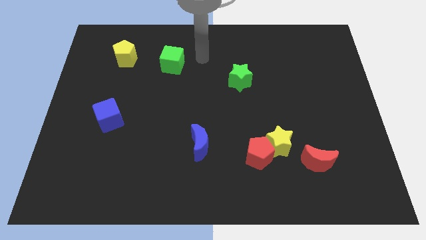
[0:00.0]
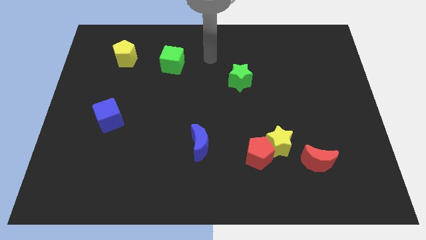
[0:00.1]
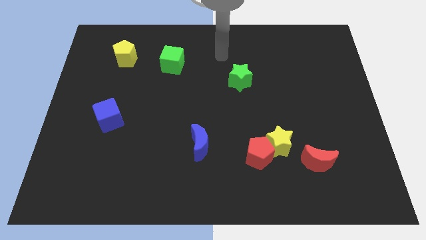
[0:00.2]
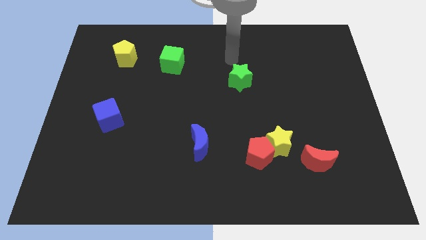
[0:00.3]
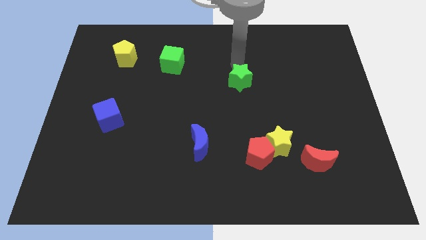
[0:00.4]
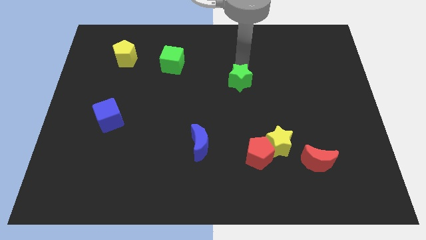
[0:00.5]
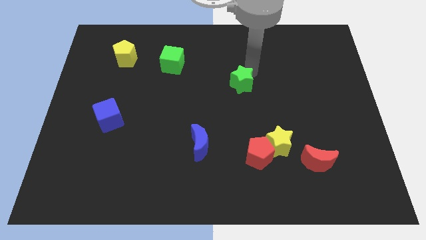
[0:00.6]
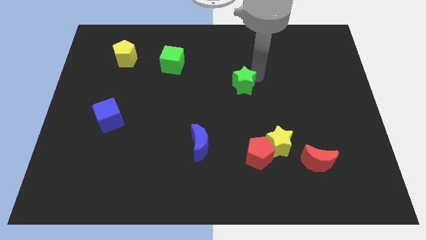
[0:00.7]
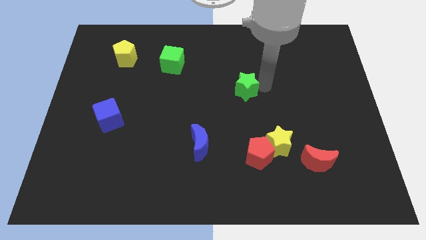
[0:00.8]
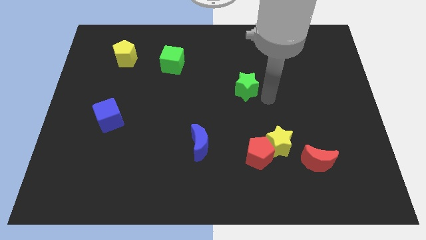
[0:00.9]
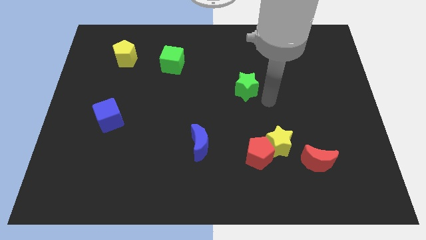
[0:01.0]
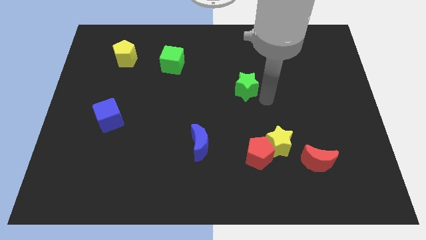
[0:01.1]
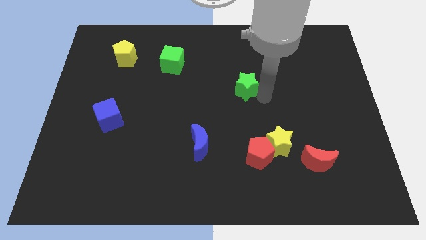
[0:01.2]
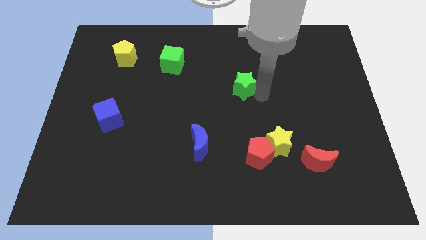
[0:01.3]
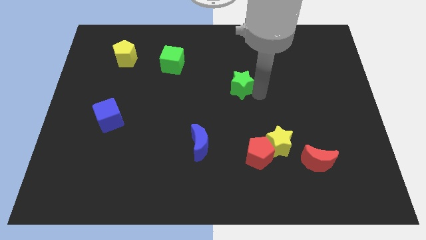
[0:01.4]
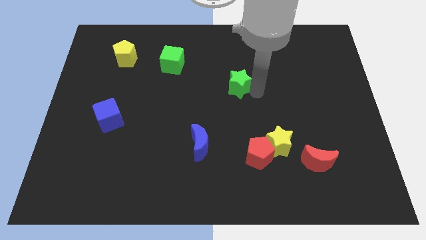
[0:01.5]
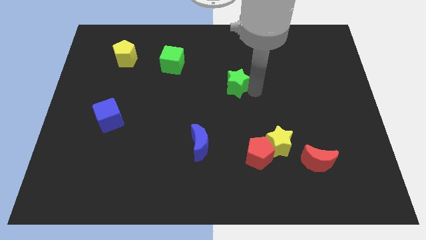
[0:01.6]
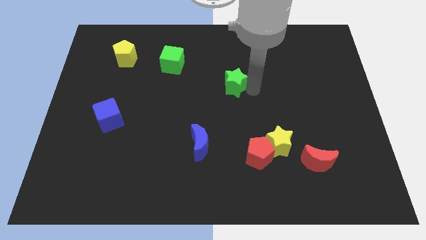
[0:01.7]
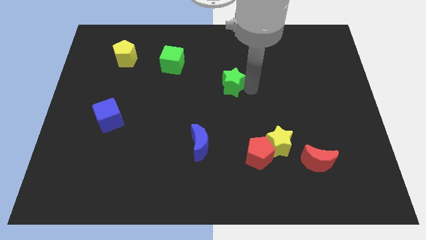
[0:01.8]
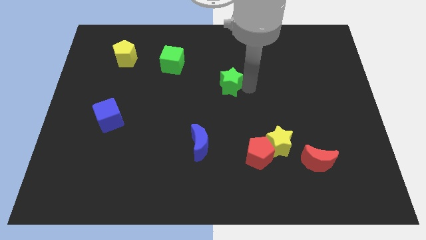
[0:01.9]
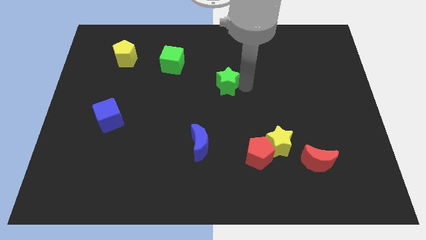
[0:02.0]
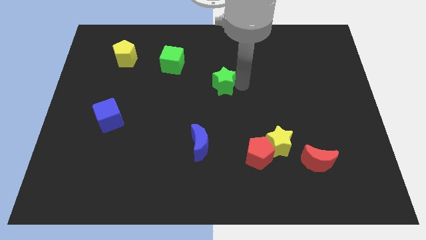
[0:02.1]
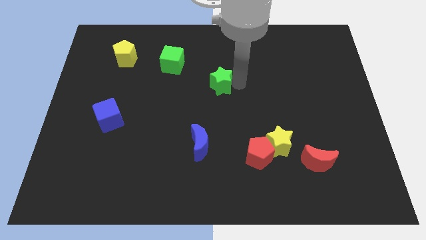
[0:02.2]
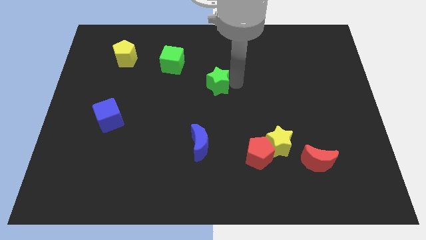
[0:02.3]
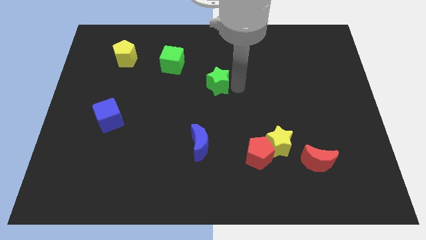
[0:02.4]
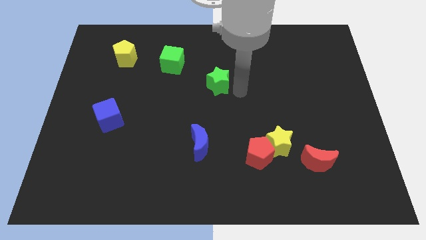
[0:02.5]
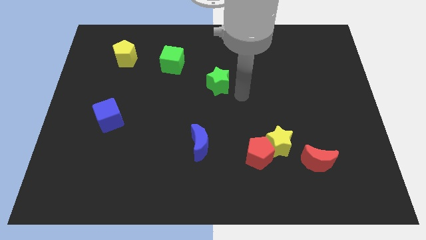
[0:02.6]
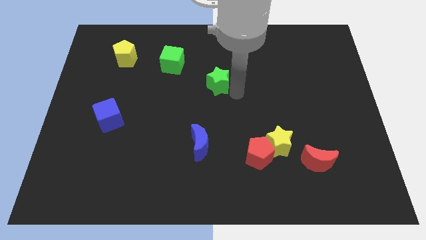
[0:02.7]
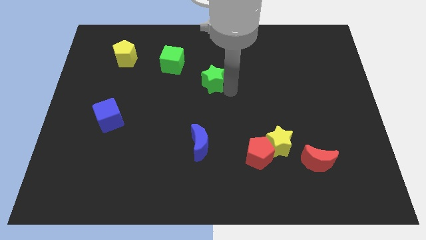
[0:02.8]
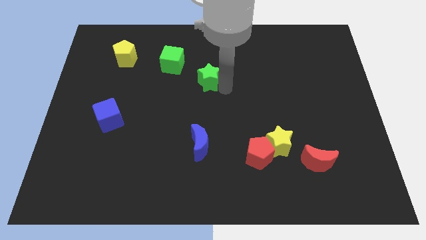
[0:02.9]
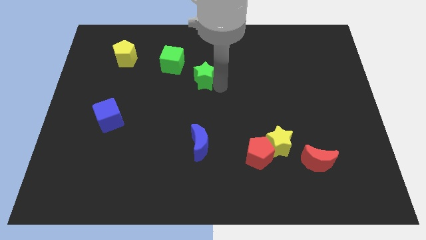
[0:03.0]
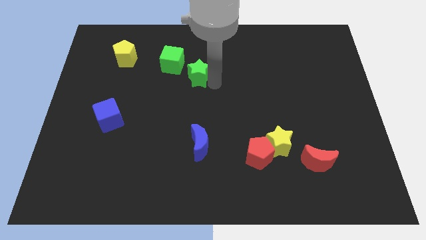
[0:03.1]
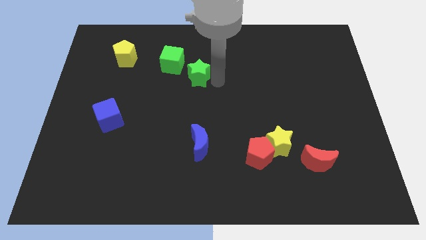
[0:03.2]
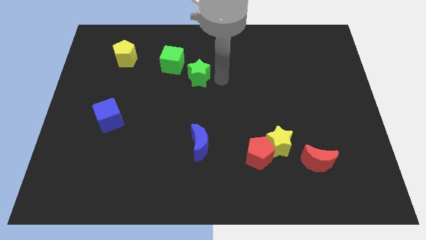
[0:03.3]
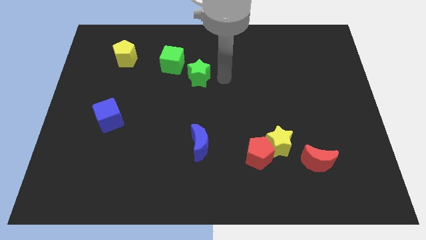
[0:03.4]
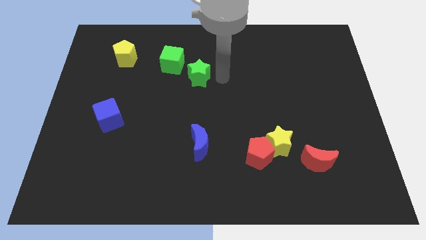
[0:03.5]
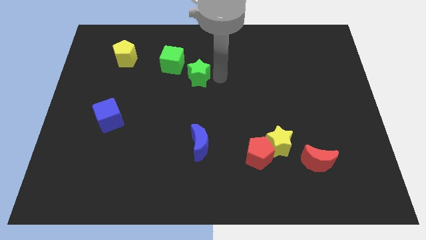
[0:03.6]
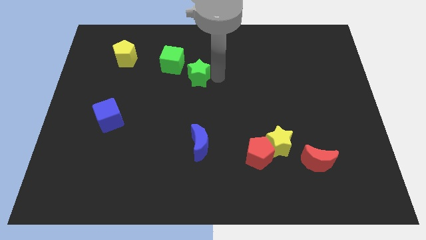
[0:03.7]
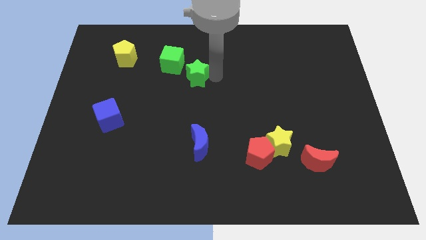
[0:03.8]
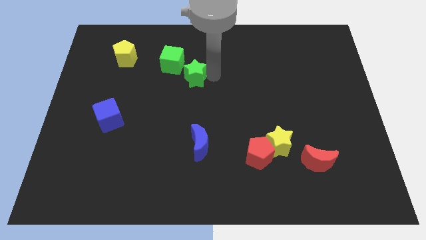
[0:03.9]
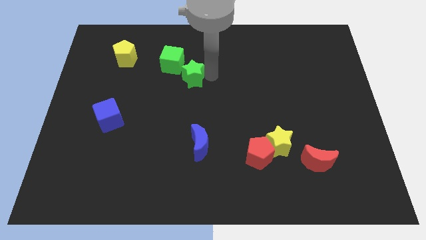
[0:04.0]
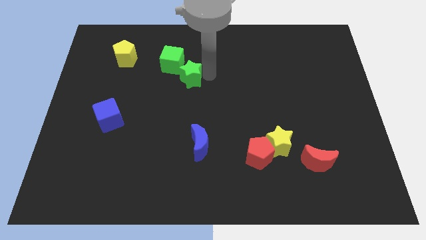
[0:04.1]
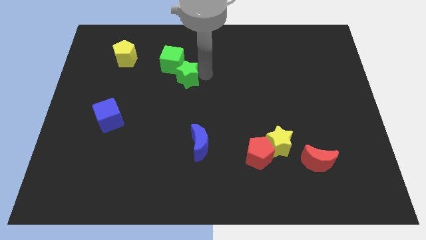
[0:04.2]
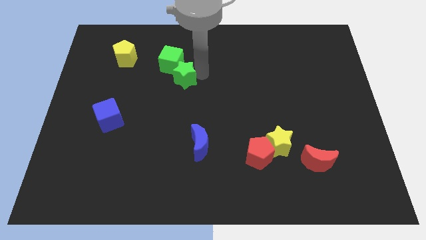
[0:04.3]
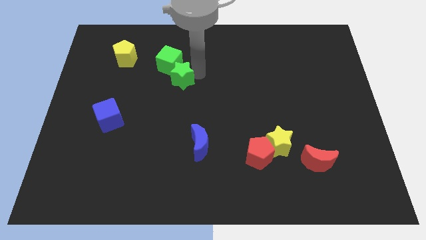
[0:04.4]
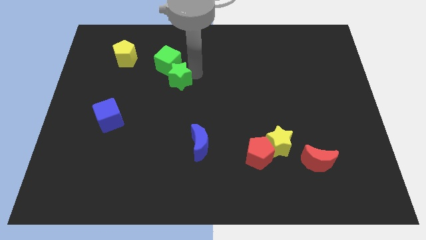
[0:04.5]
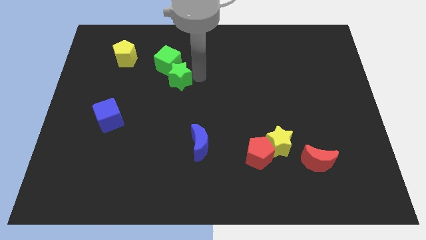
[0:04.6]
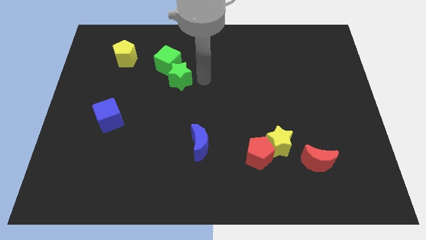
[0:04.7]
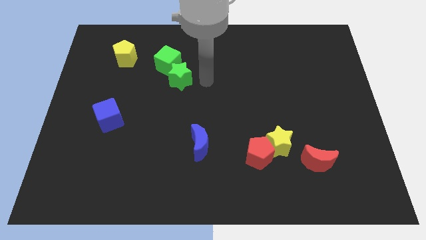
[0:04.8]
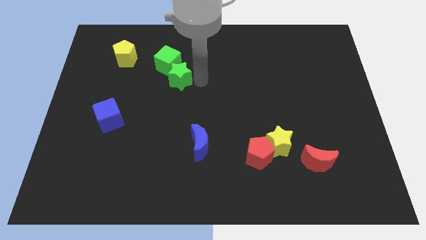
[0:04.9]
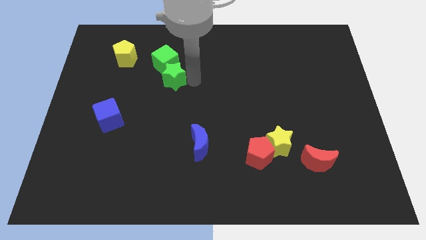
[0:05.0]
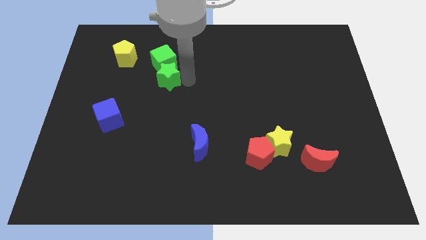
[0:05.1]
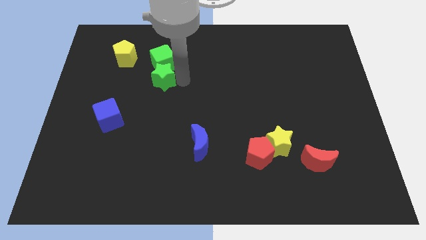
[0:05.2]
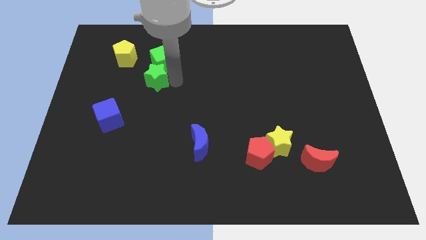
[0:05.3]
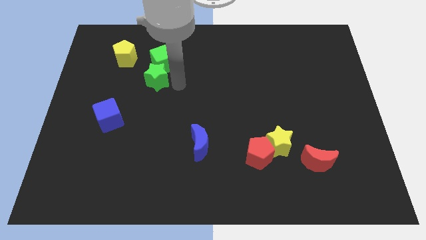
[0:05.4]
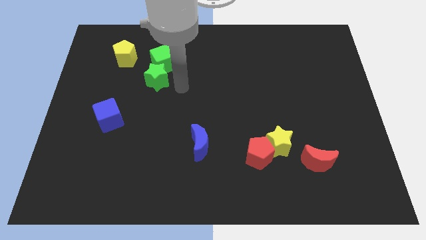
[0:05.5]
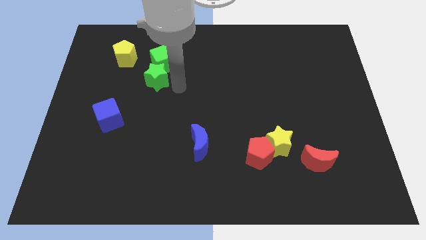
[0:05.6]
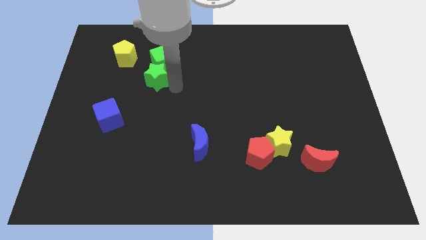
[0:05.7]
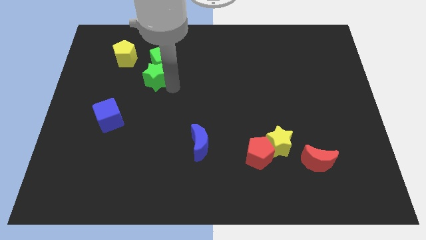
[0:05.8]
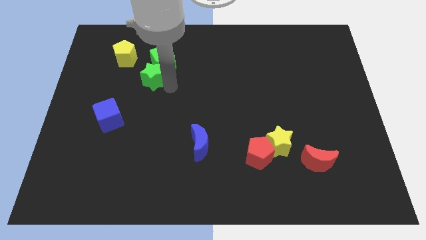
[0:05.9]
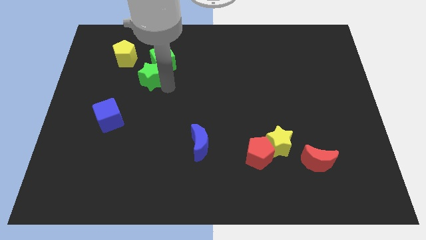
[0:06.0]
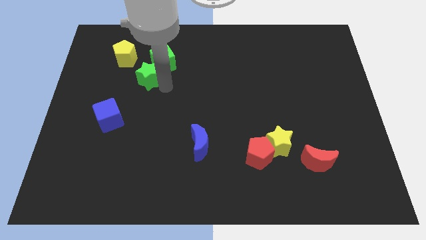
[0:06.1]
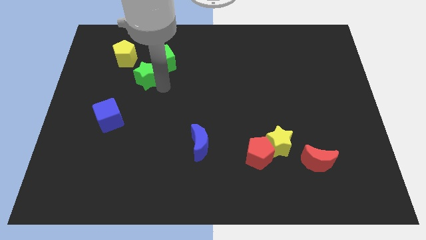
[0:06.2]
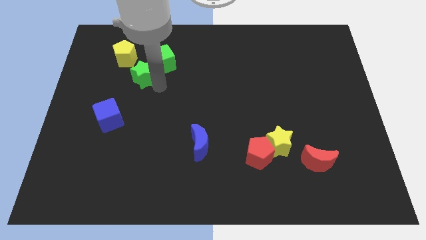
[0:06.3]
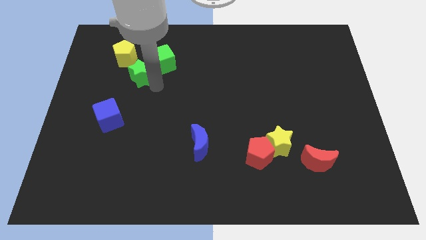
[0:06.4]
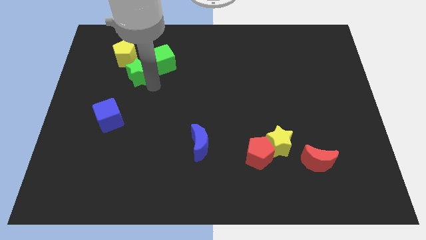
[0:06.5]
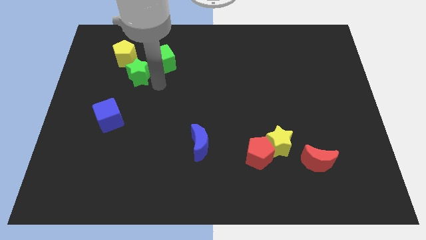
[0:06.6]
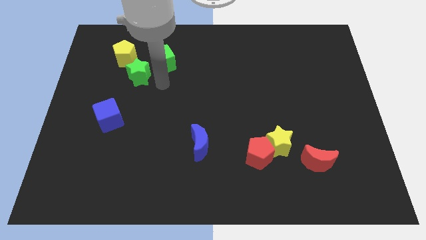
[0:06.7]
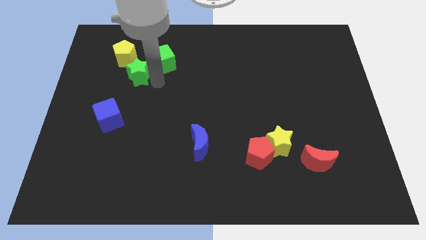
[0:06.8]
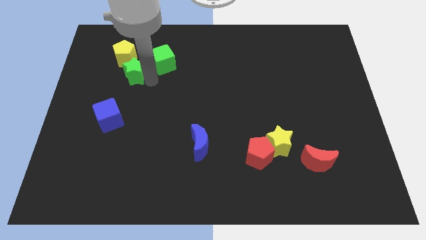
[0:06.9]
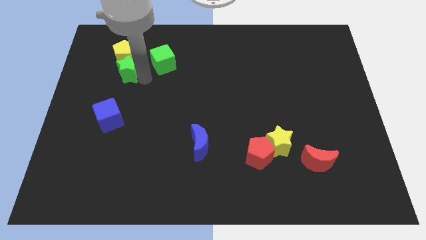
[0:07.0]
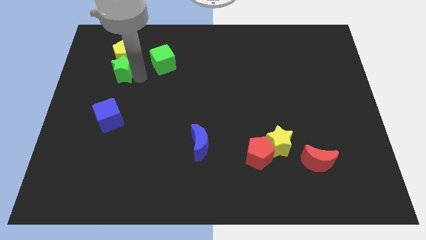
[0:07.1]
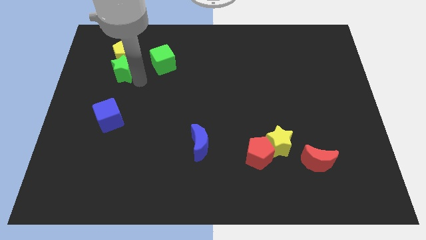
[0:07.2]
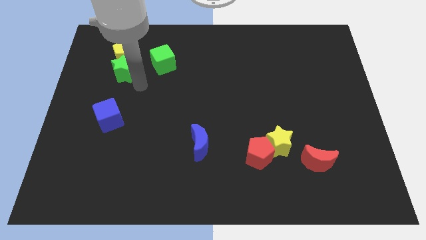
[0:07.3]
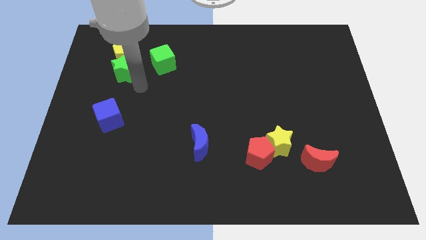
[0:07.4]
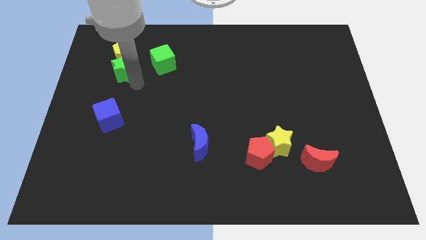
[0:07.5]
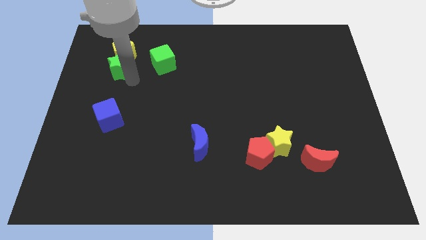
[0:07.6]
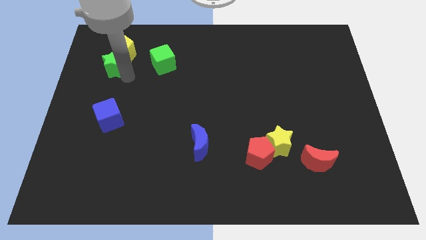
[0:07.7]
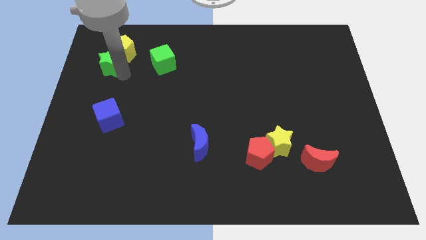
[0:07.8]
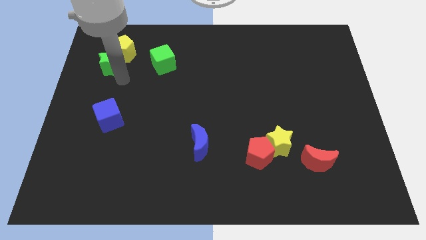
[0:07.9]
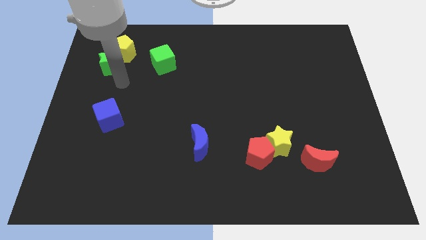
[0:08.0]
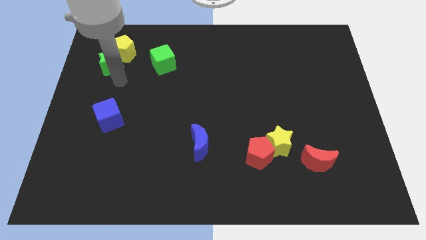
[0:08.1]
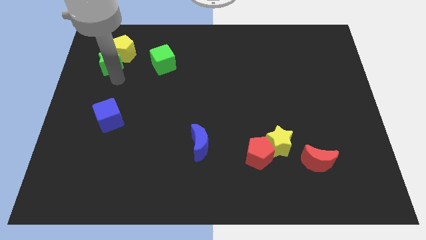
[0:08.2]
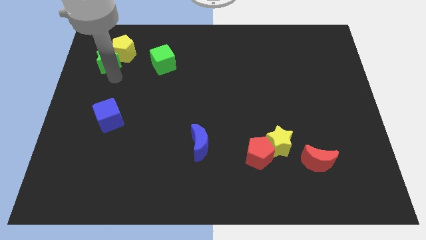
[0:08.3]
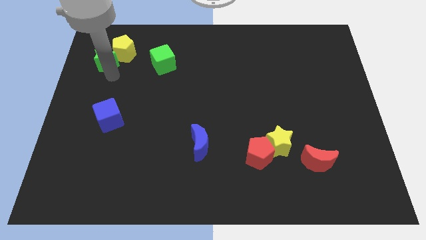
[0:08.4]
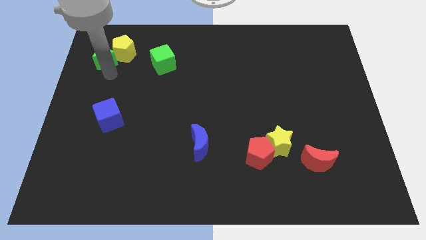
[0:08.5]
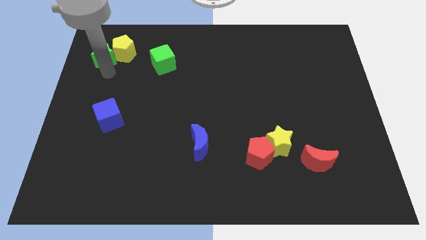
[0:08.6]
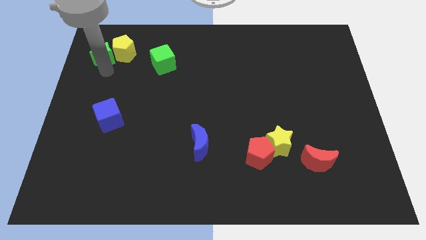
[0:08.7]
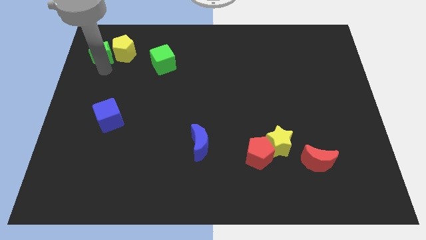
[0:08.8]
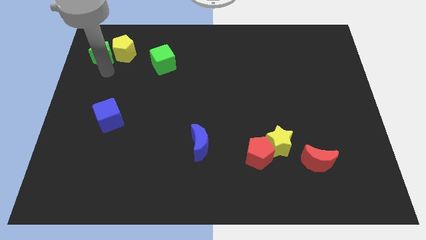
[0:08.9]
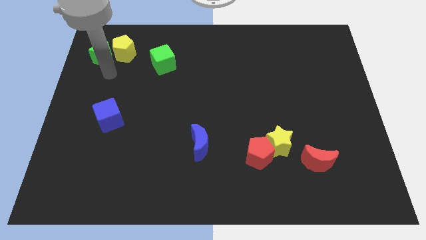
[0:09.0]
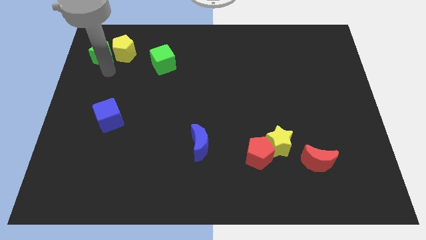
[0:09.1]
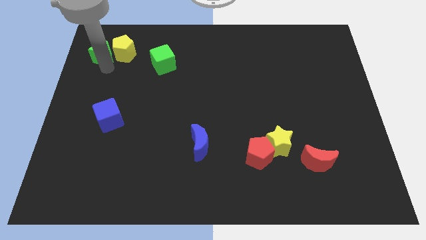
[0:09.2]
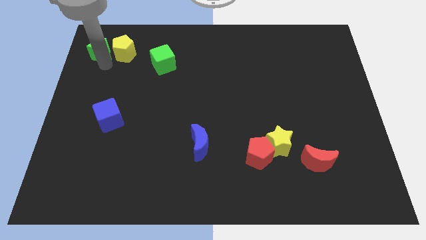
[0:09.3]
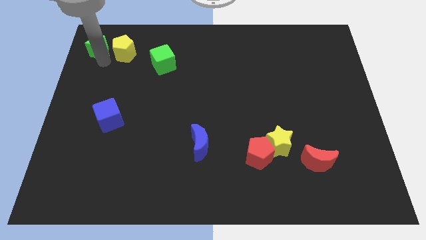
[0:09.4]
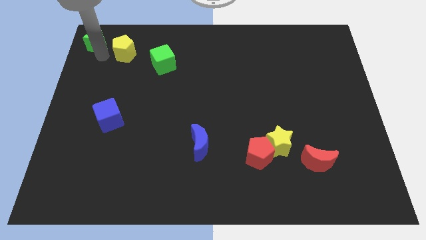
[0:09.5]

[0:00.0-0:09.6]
slide the green star to the top left of the board
